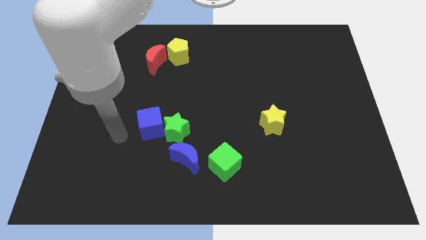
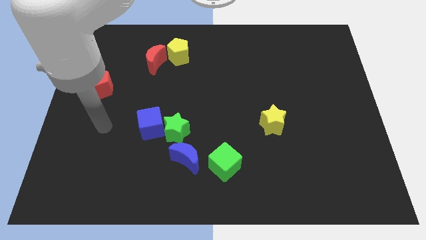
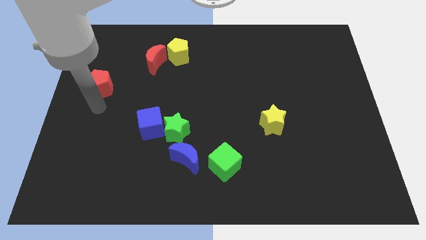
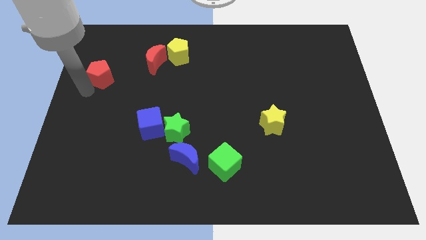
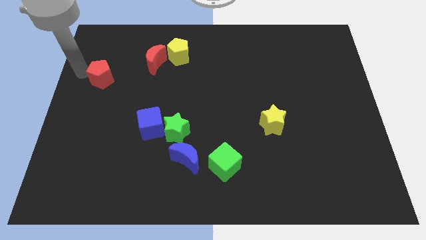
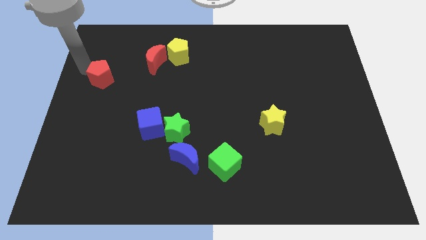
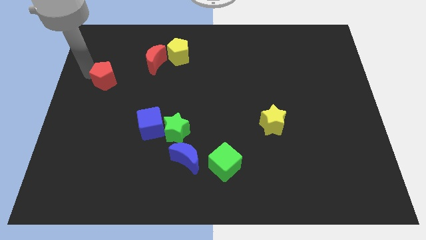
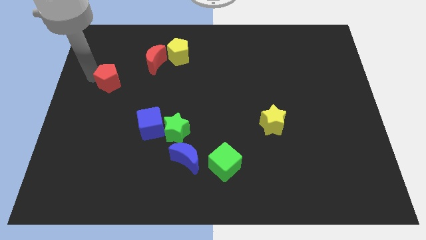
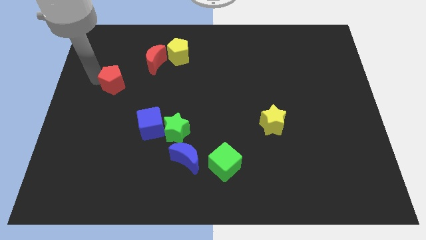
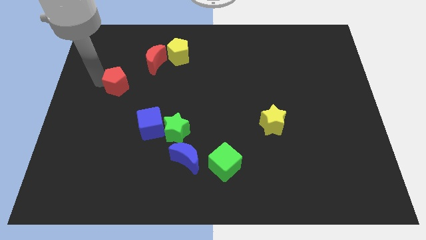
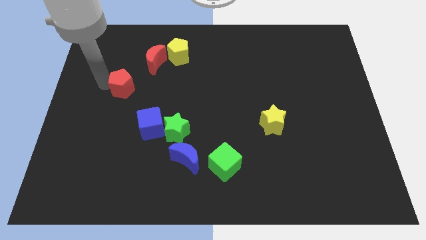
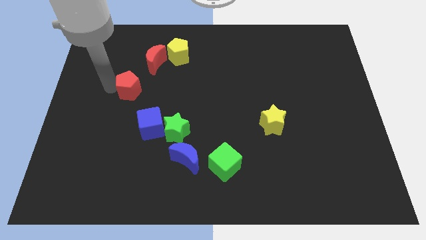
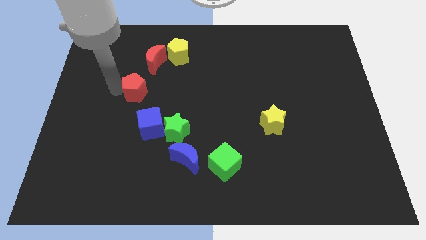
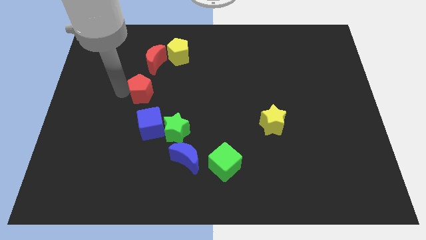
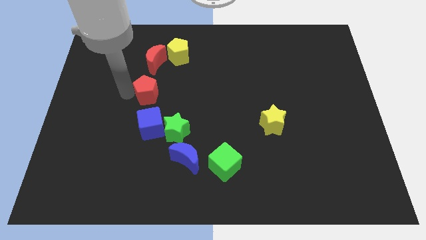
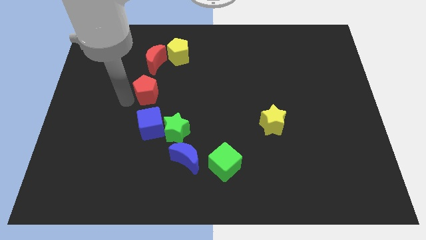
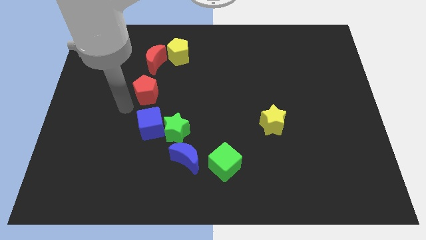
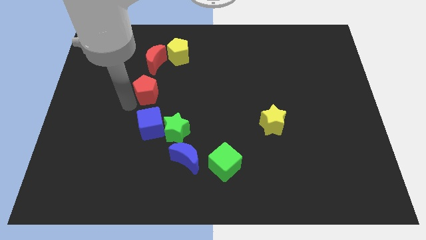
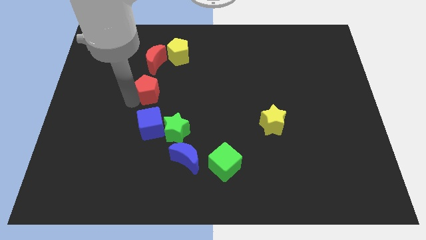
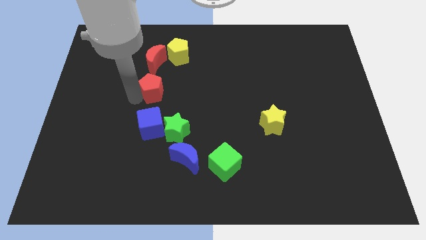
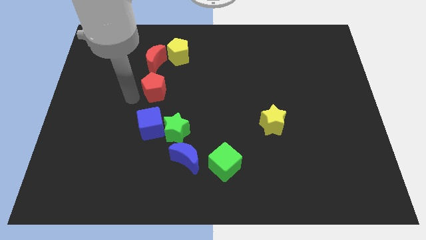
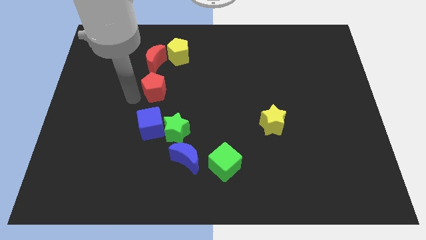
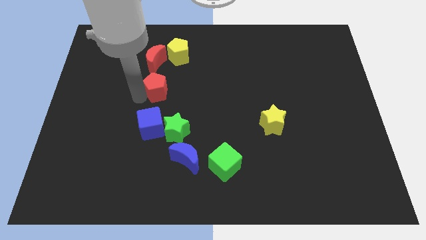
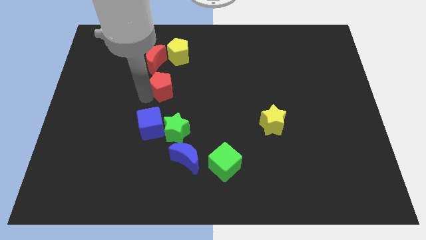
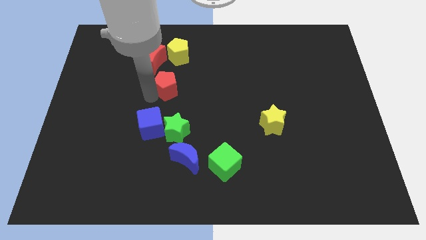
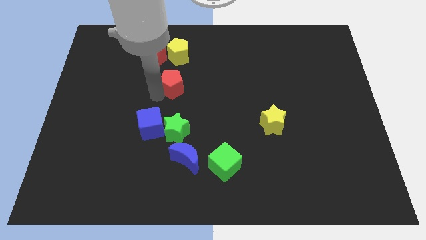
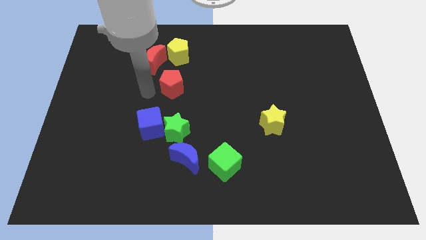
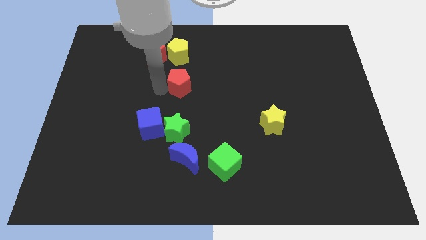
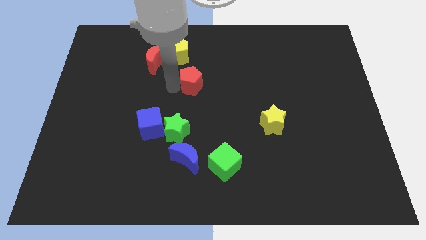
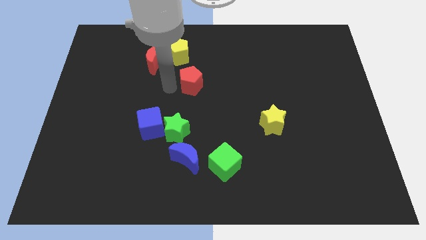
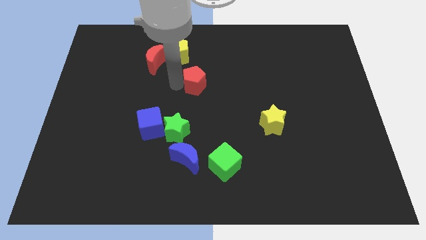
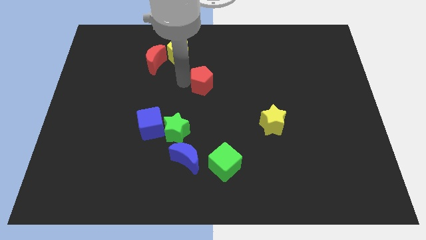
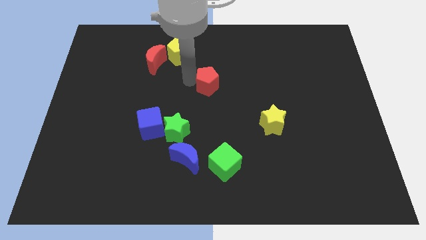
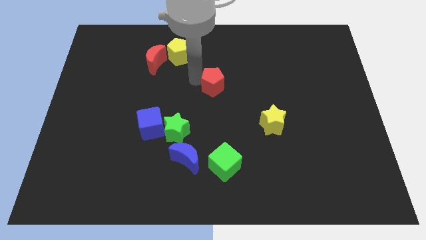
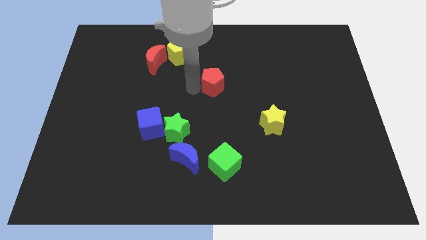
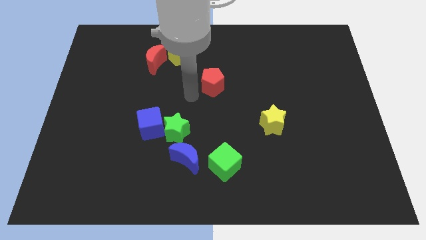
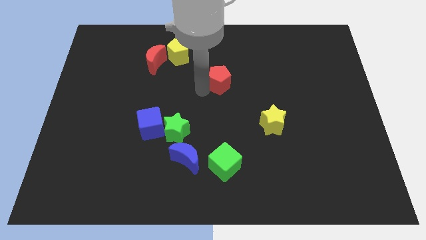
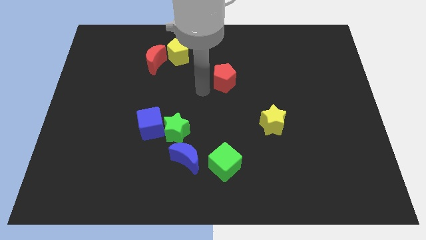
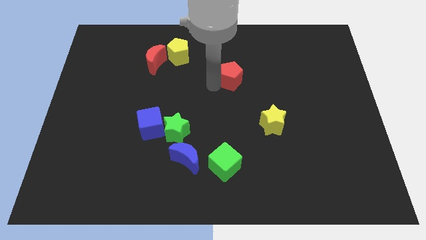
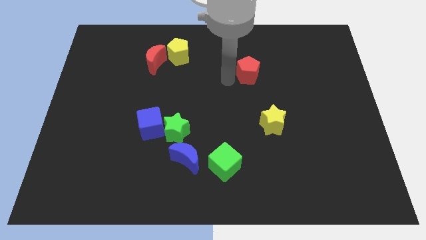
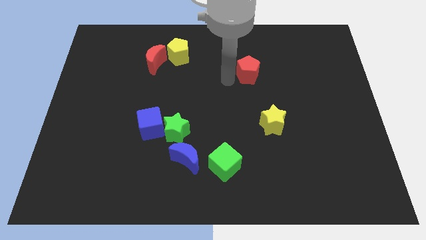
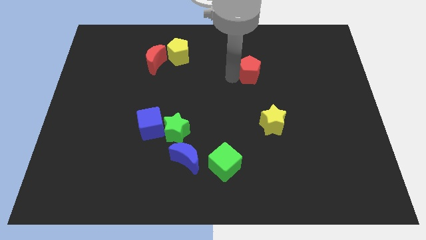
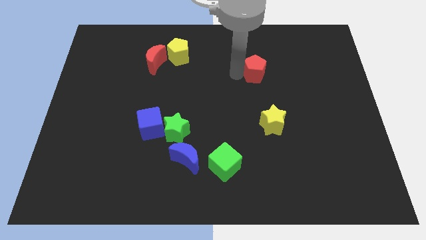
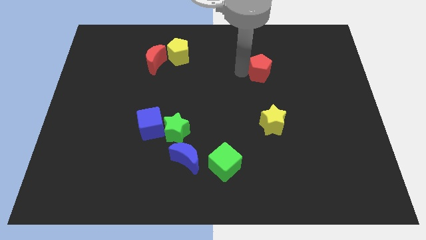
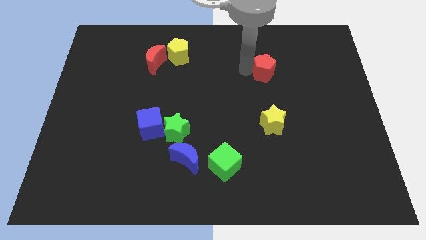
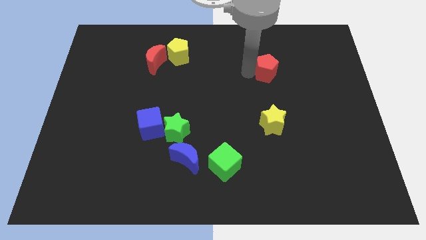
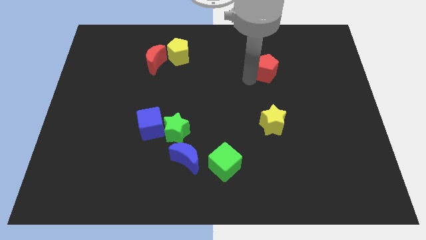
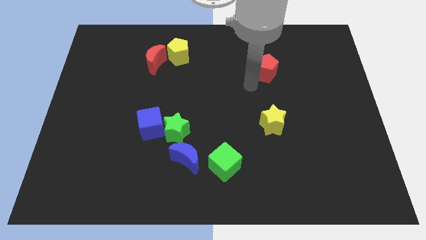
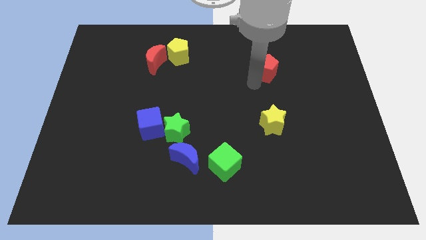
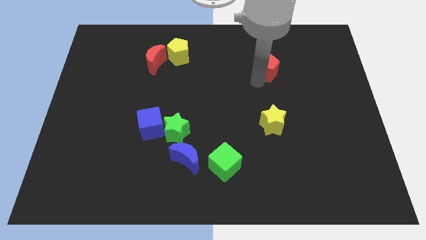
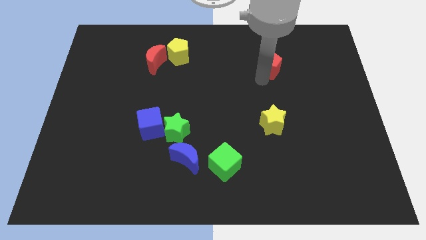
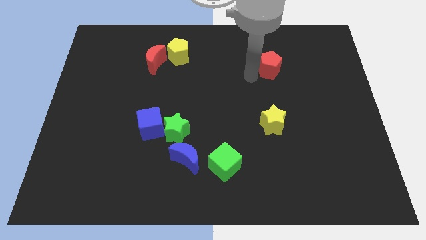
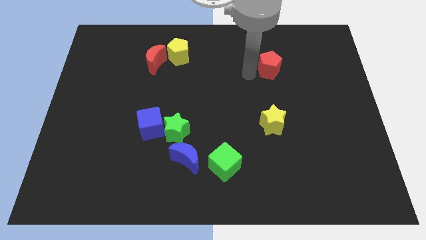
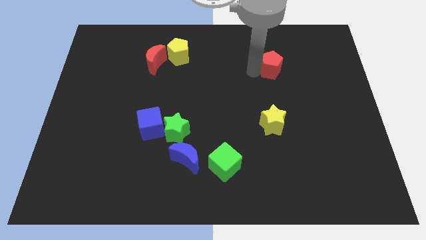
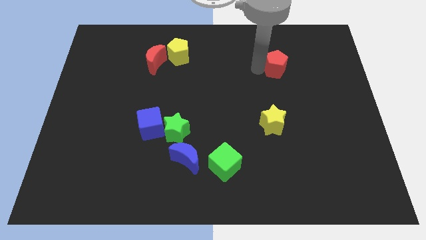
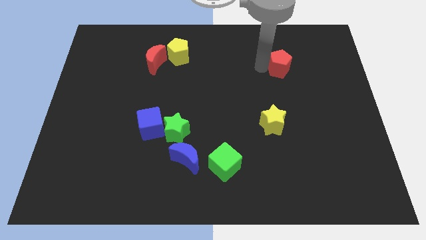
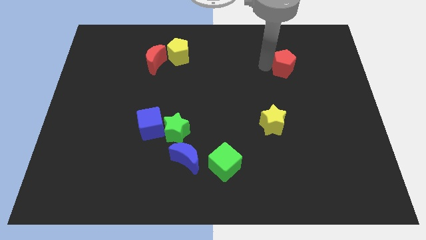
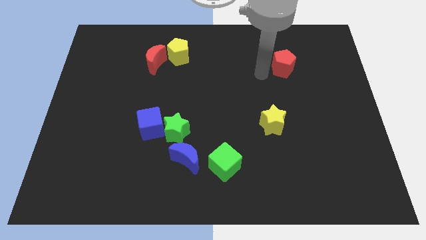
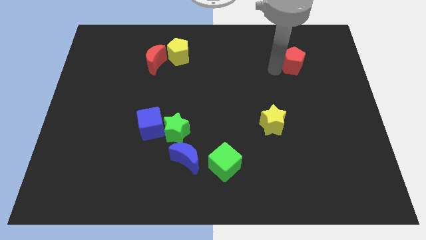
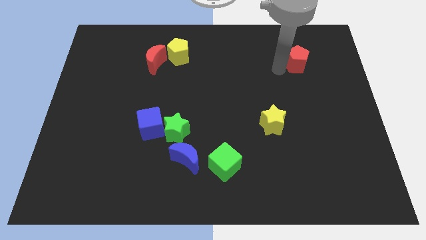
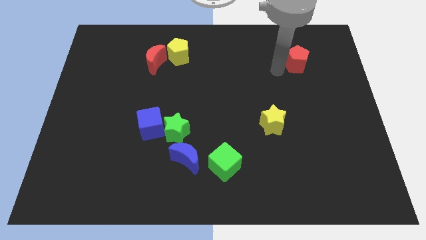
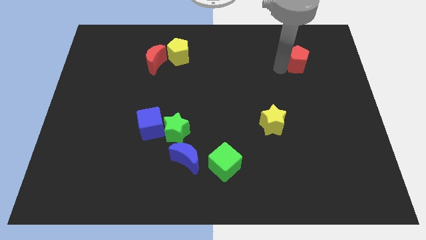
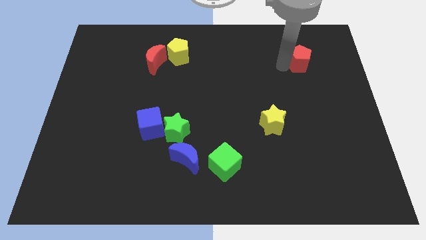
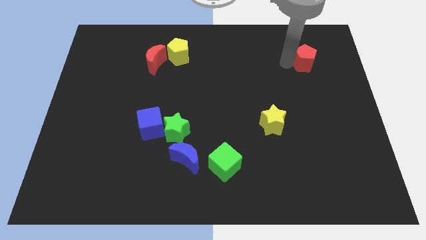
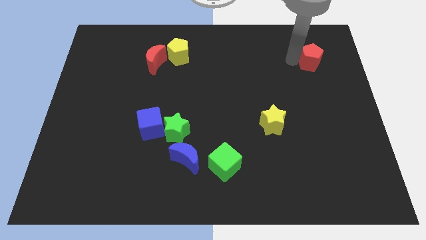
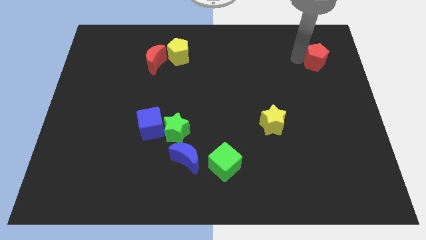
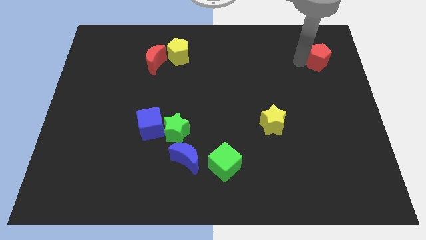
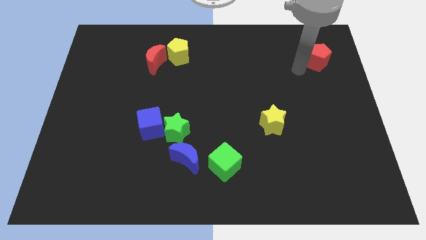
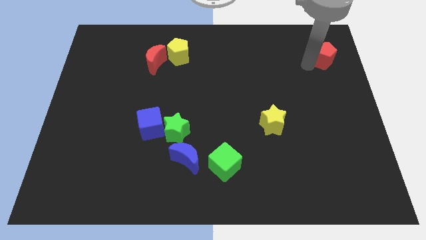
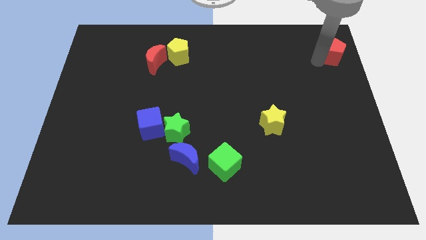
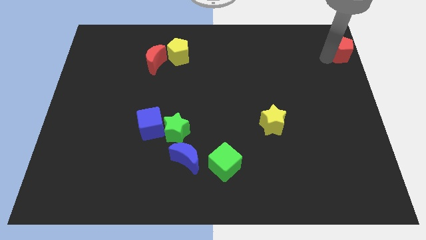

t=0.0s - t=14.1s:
move the red pentagon to the top right of the board
